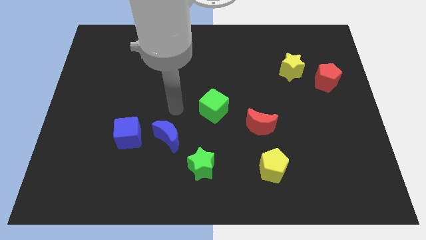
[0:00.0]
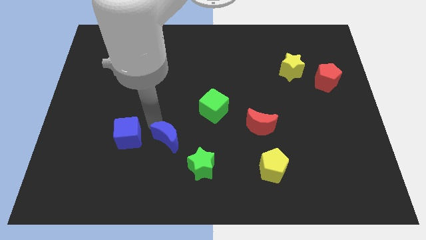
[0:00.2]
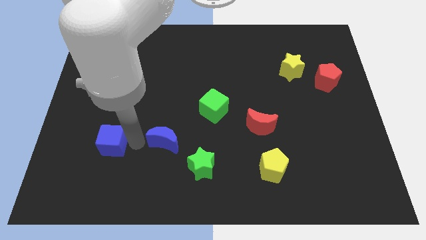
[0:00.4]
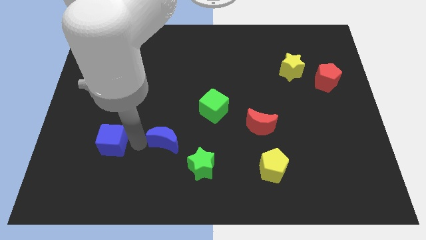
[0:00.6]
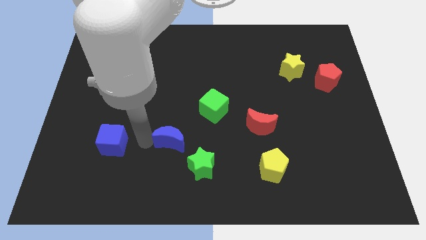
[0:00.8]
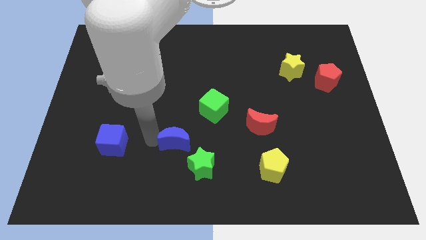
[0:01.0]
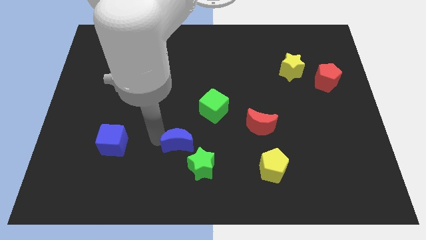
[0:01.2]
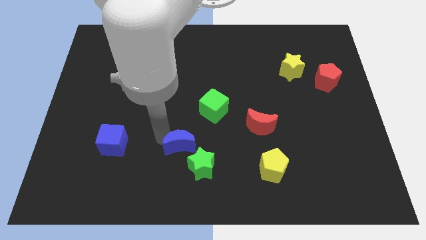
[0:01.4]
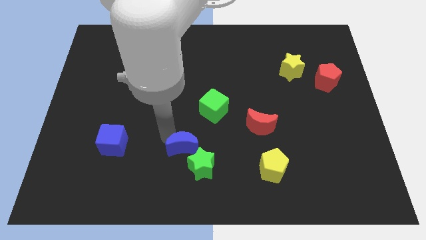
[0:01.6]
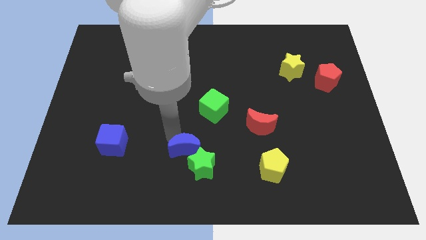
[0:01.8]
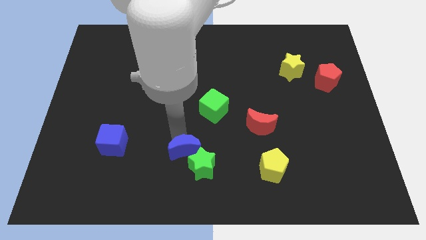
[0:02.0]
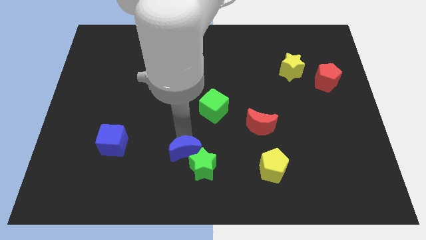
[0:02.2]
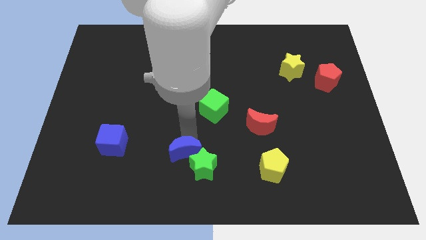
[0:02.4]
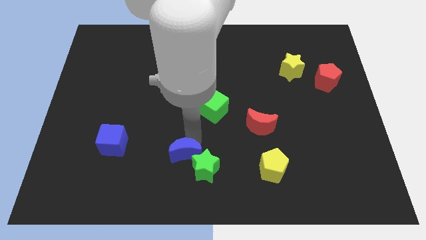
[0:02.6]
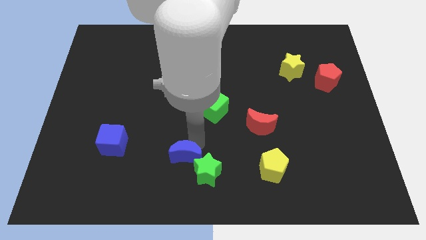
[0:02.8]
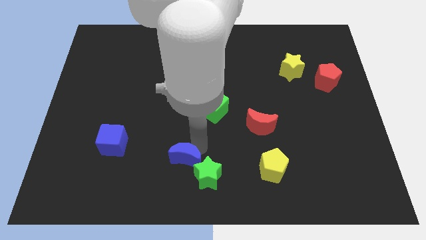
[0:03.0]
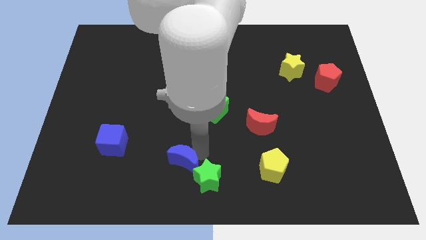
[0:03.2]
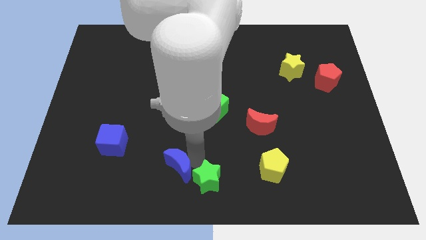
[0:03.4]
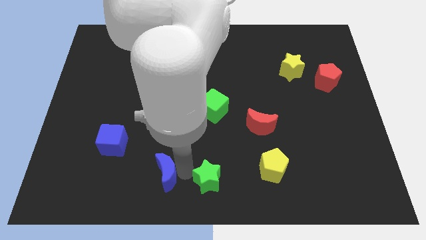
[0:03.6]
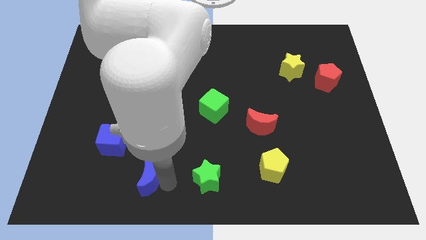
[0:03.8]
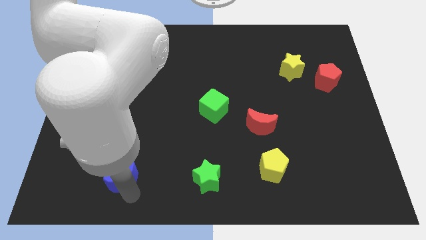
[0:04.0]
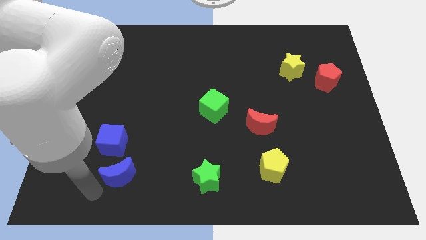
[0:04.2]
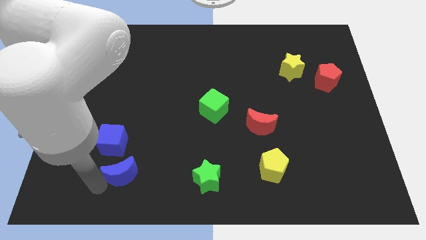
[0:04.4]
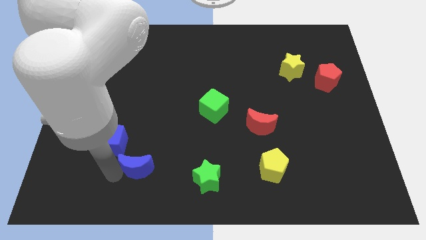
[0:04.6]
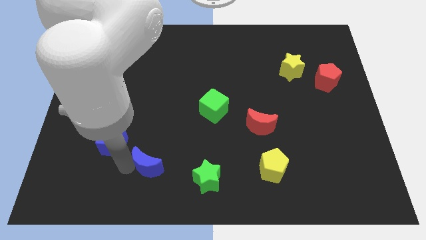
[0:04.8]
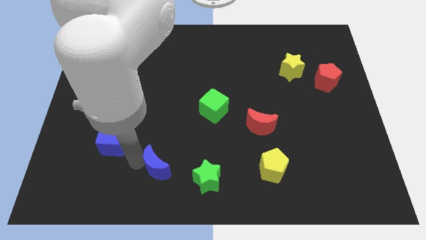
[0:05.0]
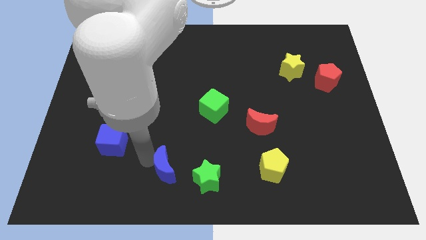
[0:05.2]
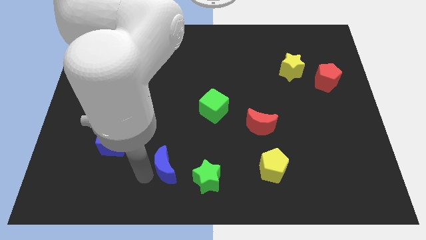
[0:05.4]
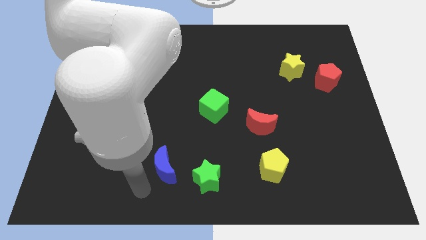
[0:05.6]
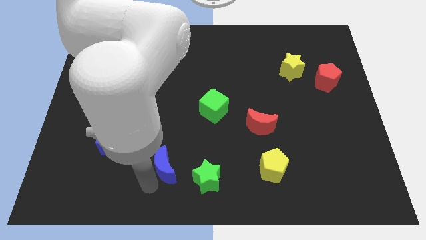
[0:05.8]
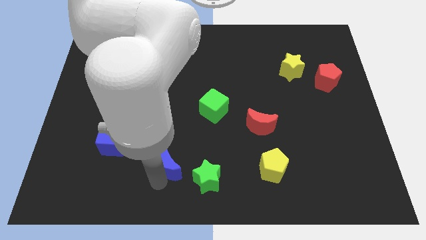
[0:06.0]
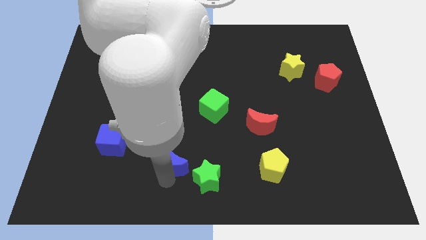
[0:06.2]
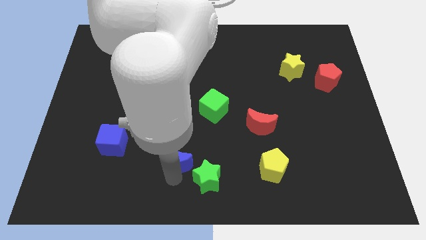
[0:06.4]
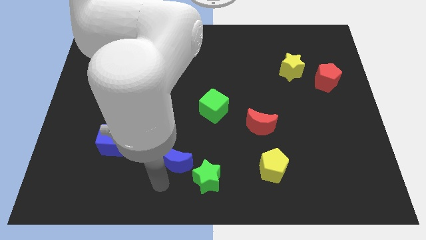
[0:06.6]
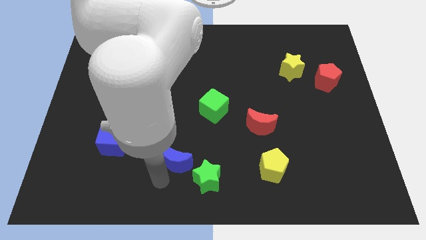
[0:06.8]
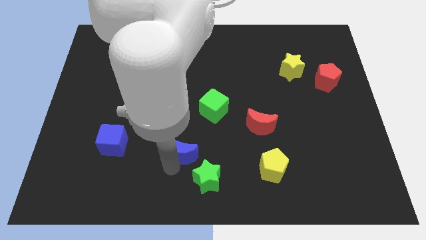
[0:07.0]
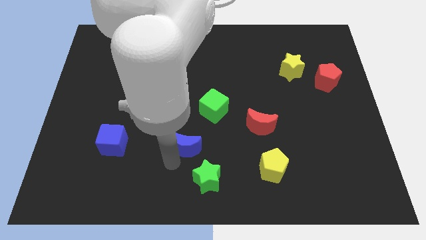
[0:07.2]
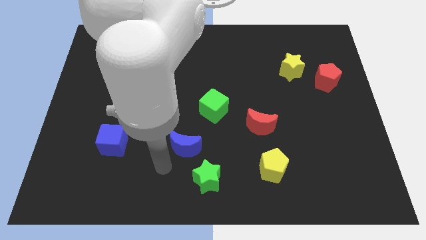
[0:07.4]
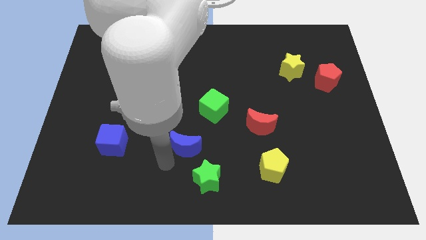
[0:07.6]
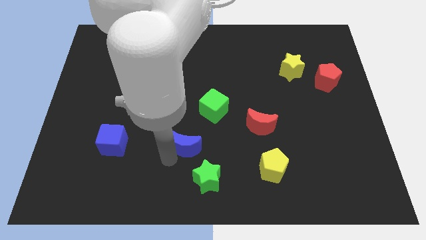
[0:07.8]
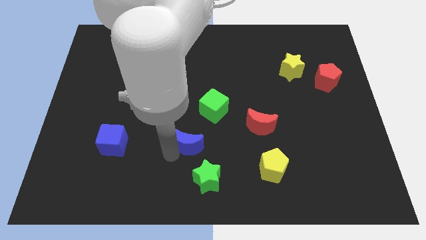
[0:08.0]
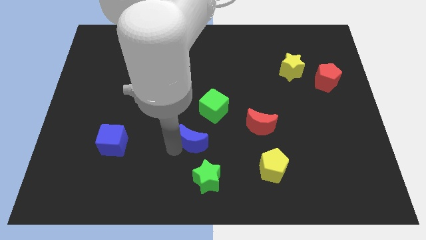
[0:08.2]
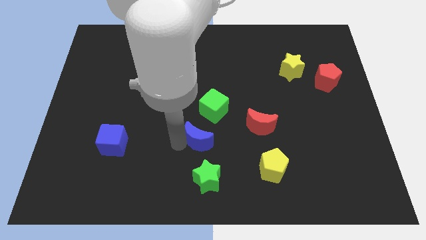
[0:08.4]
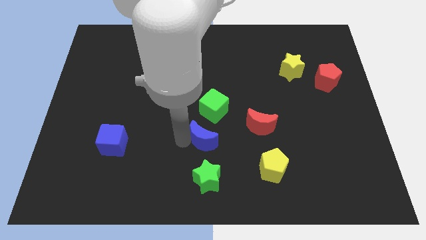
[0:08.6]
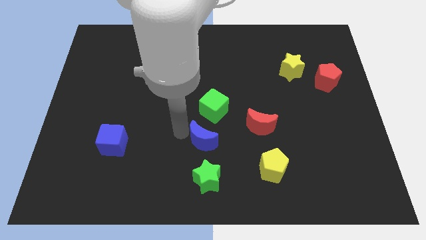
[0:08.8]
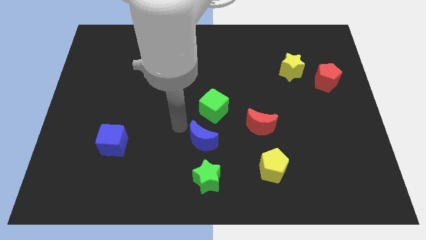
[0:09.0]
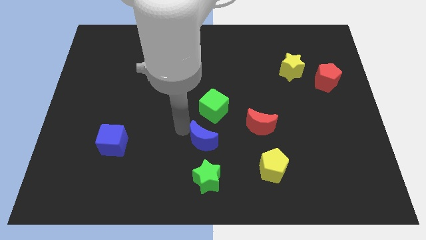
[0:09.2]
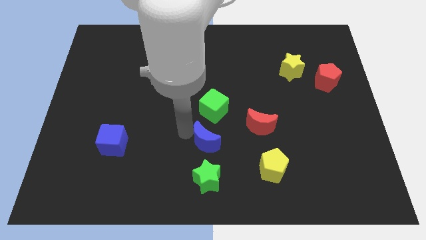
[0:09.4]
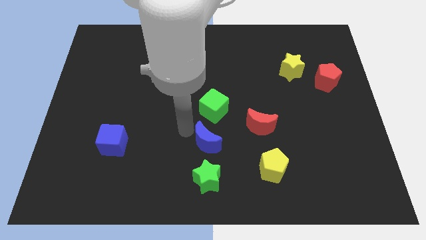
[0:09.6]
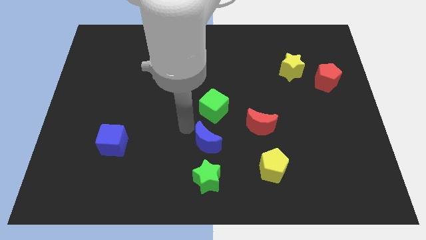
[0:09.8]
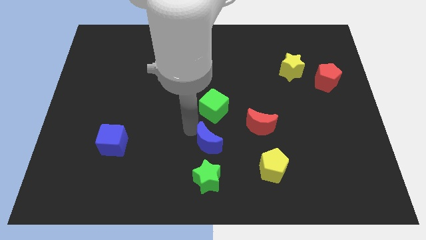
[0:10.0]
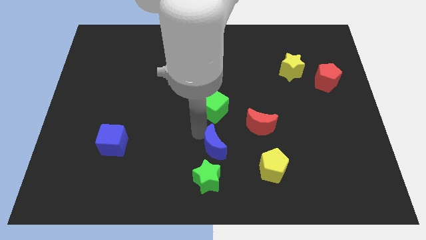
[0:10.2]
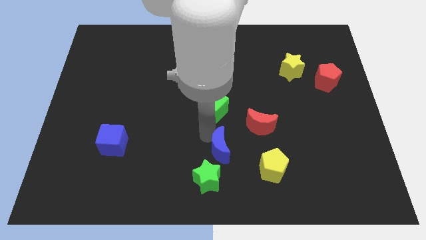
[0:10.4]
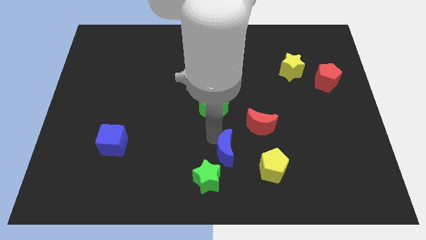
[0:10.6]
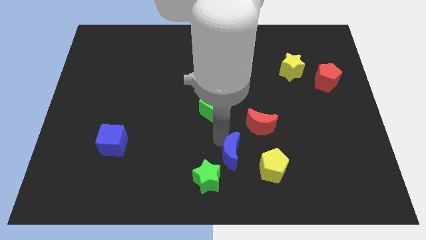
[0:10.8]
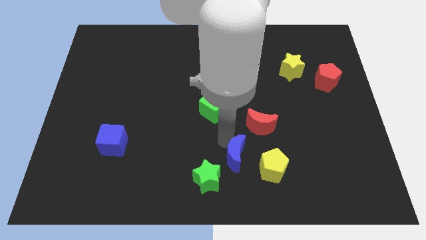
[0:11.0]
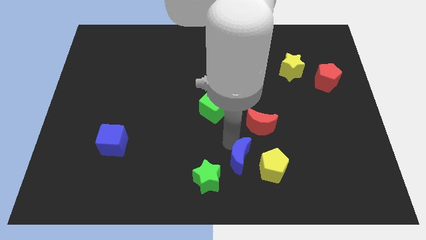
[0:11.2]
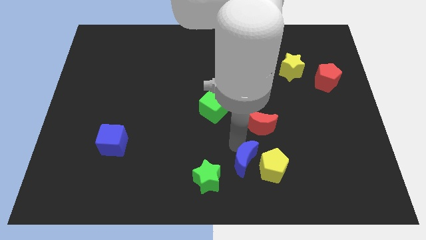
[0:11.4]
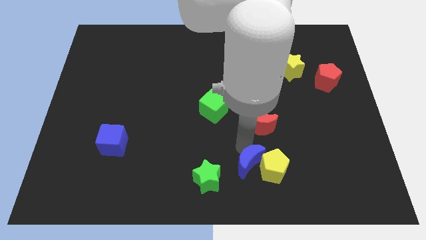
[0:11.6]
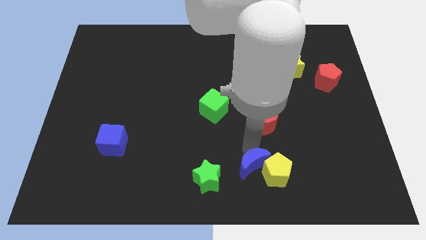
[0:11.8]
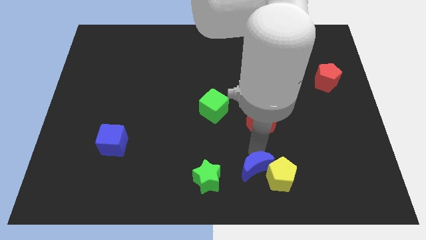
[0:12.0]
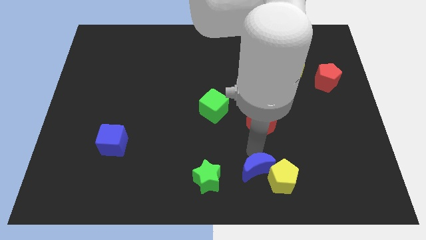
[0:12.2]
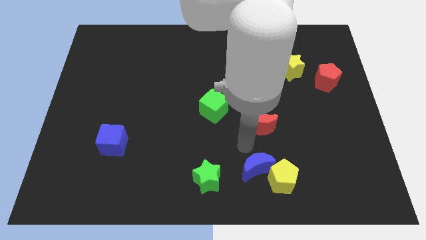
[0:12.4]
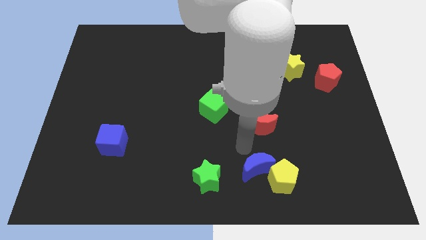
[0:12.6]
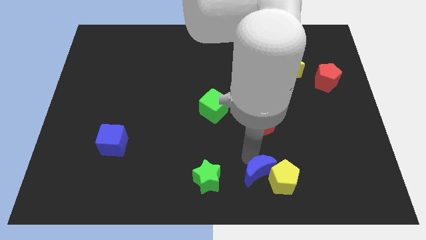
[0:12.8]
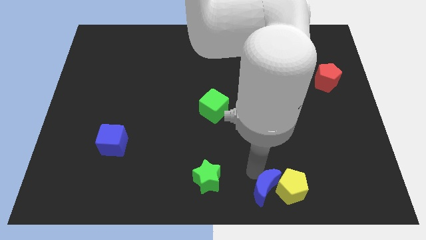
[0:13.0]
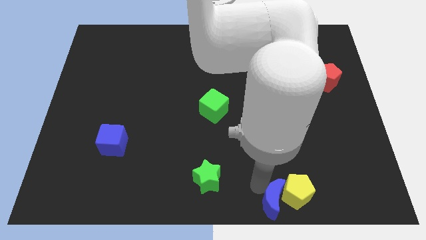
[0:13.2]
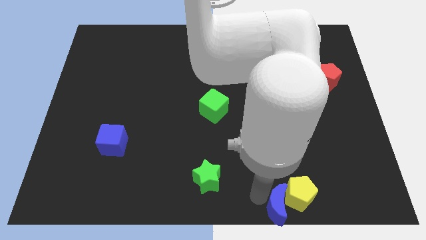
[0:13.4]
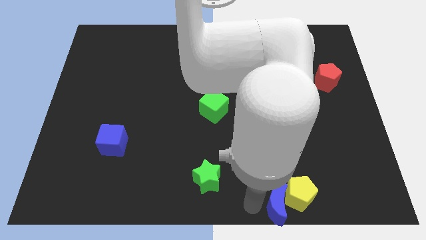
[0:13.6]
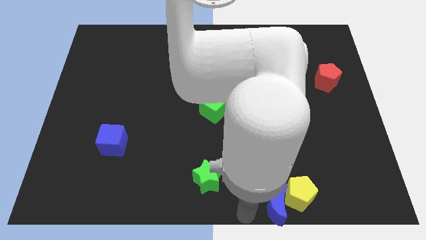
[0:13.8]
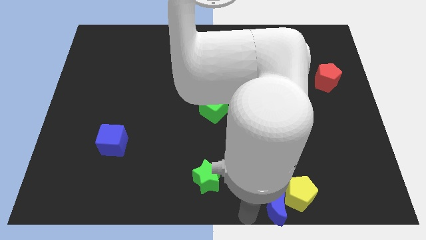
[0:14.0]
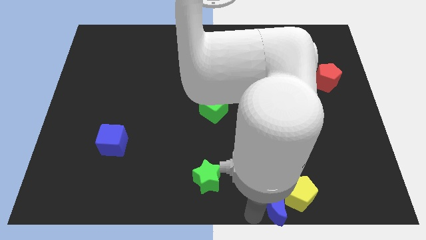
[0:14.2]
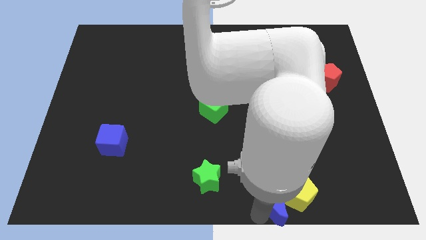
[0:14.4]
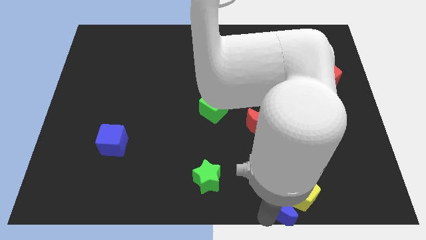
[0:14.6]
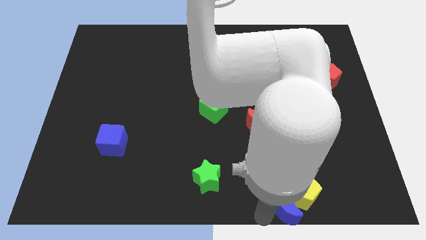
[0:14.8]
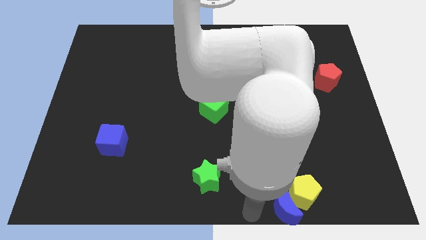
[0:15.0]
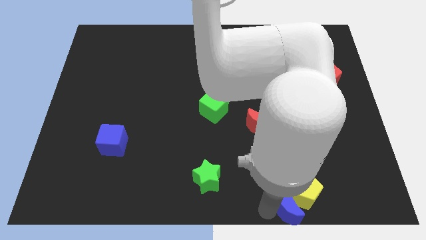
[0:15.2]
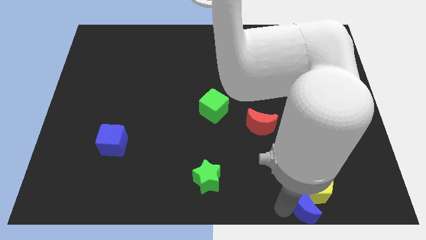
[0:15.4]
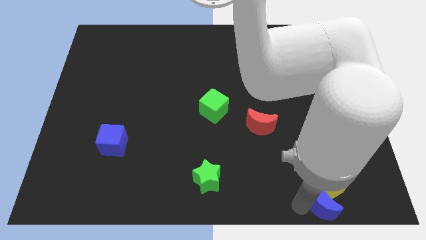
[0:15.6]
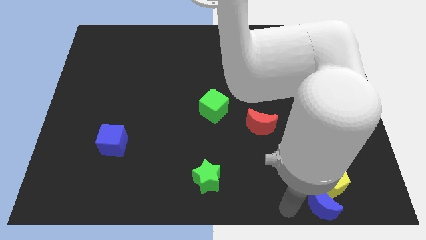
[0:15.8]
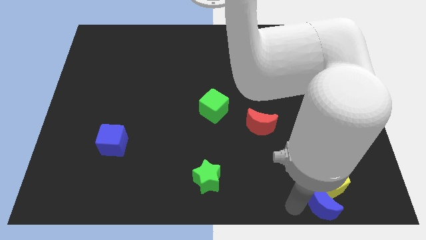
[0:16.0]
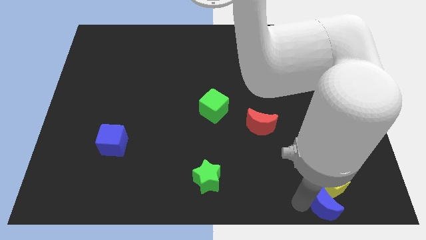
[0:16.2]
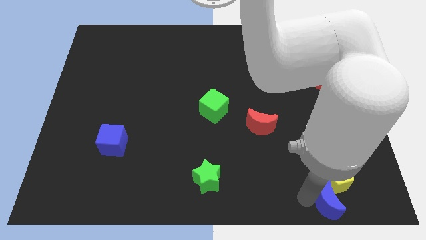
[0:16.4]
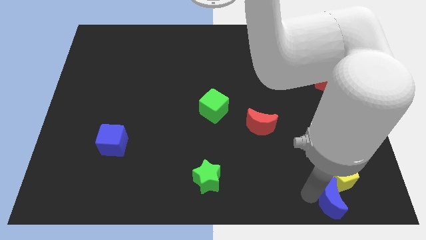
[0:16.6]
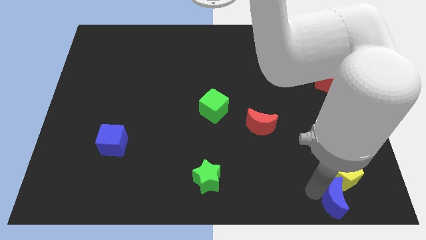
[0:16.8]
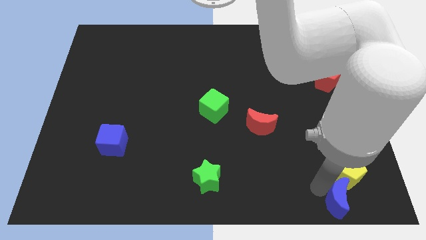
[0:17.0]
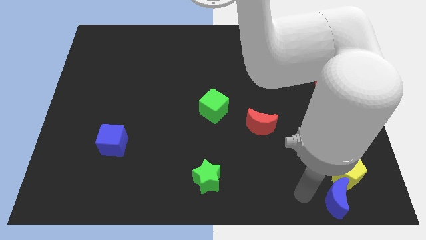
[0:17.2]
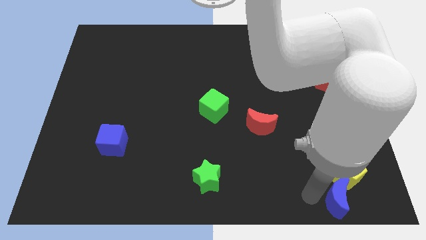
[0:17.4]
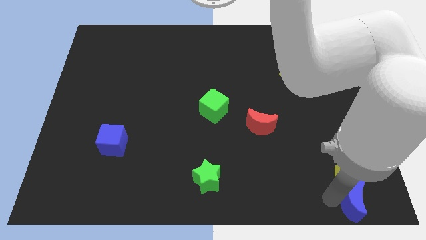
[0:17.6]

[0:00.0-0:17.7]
slide the blue moon to the bottom right corner
